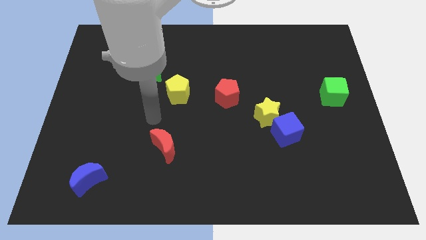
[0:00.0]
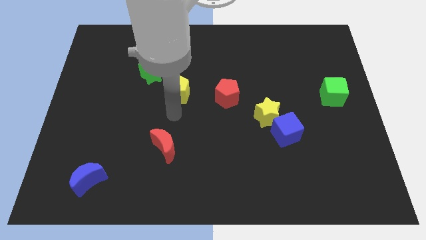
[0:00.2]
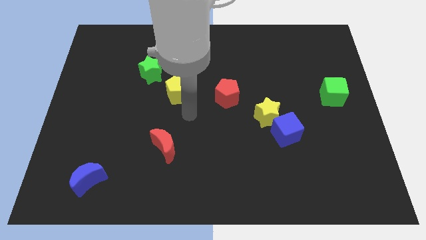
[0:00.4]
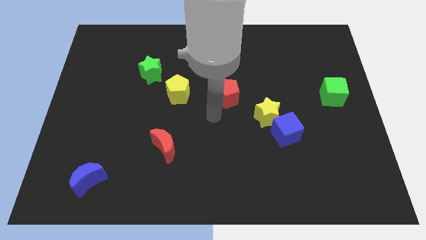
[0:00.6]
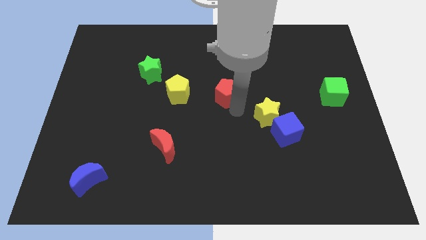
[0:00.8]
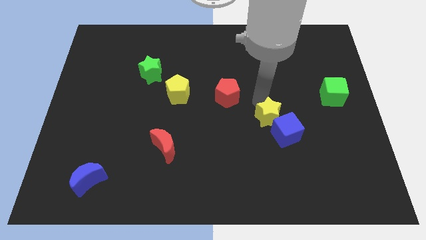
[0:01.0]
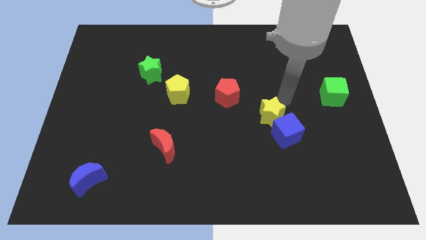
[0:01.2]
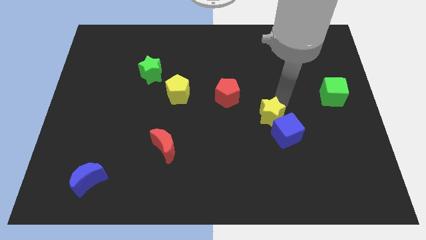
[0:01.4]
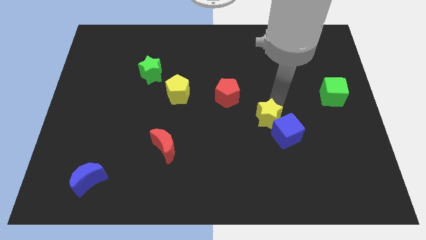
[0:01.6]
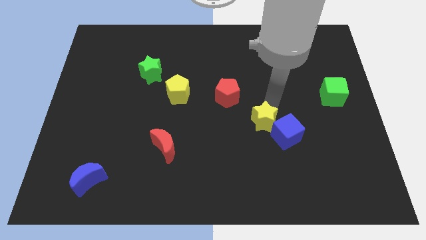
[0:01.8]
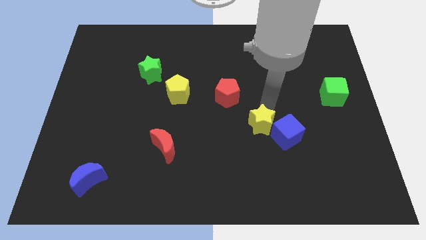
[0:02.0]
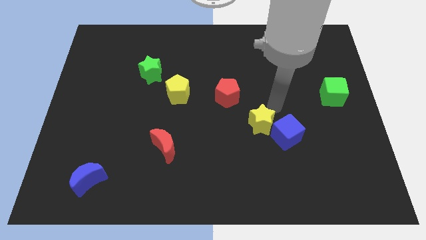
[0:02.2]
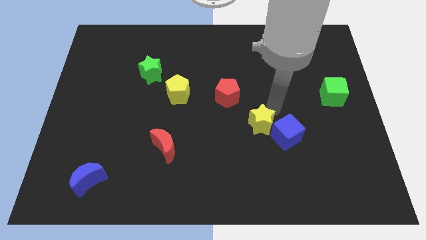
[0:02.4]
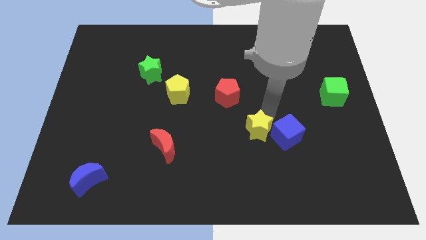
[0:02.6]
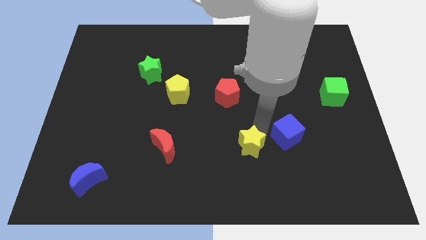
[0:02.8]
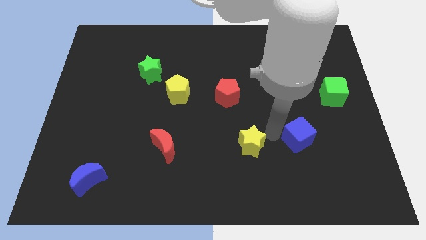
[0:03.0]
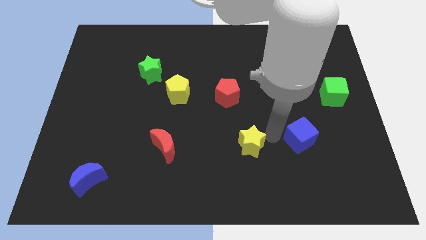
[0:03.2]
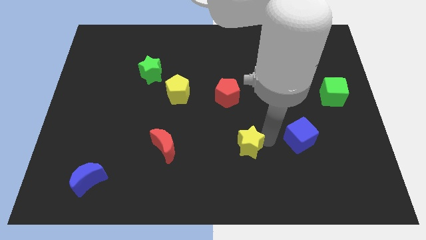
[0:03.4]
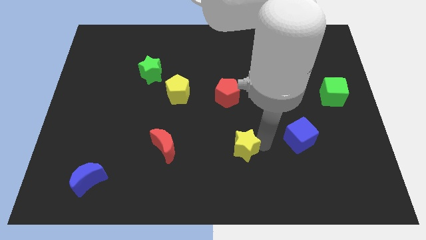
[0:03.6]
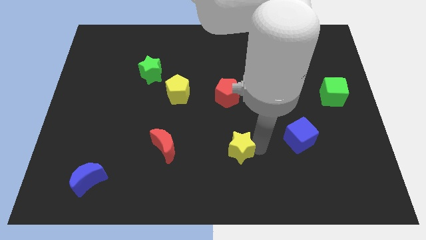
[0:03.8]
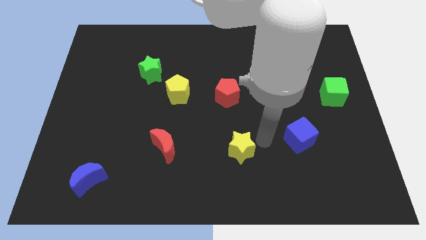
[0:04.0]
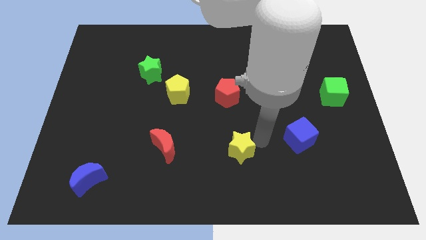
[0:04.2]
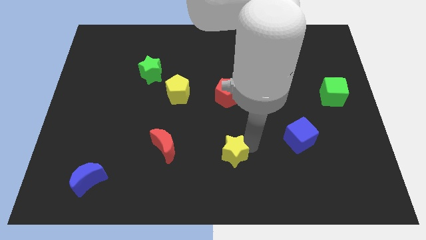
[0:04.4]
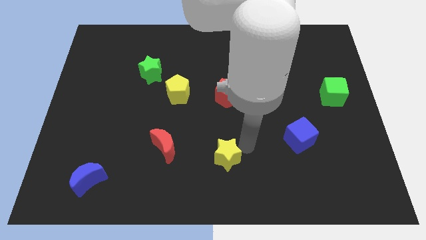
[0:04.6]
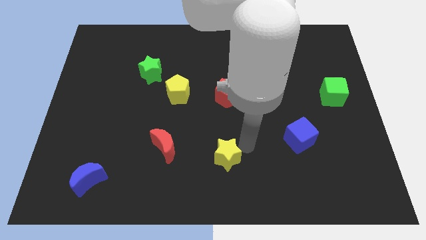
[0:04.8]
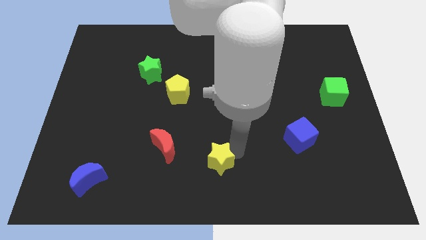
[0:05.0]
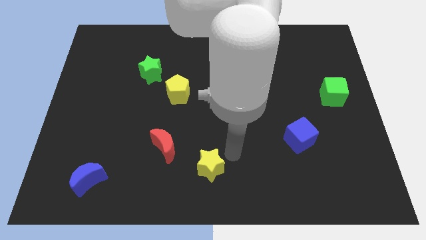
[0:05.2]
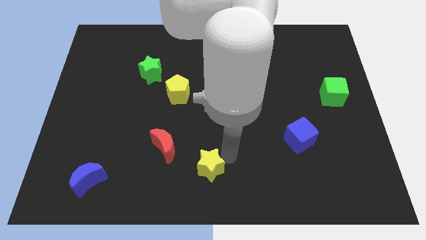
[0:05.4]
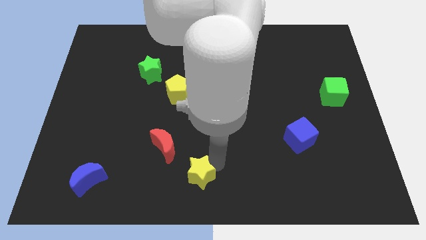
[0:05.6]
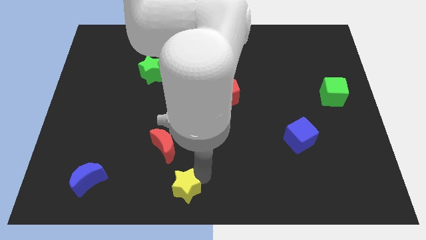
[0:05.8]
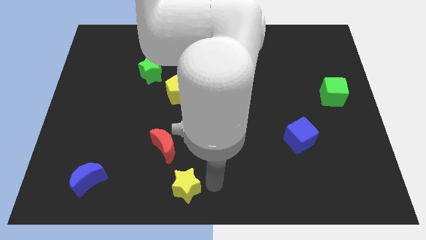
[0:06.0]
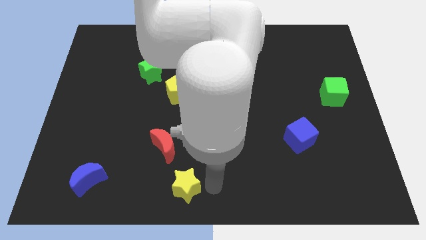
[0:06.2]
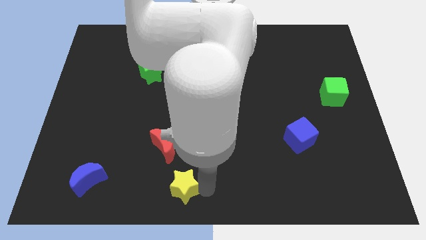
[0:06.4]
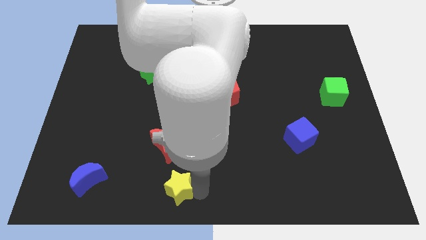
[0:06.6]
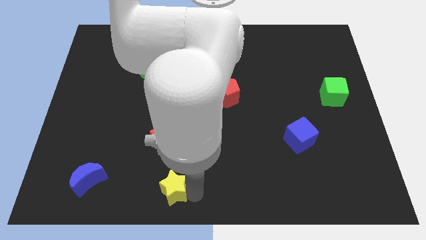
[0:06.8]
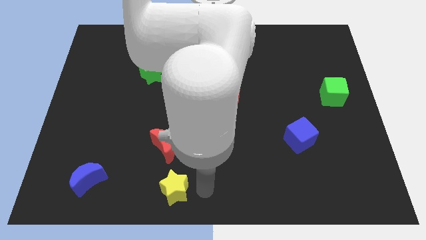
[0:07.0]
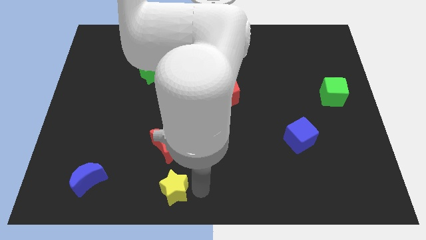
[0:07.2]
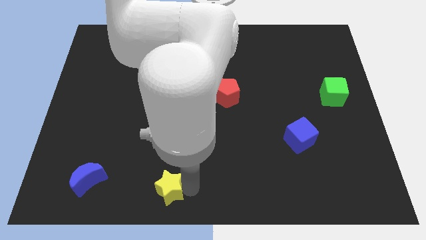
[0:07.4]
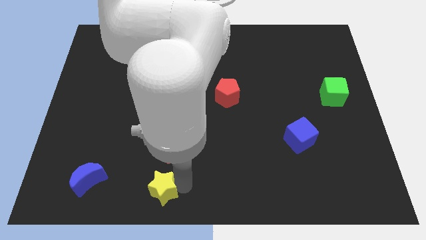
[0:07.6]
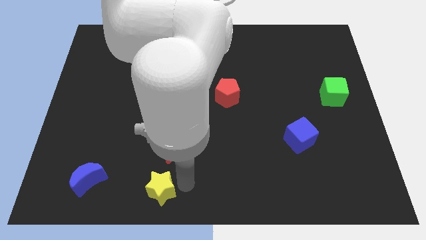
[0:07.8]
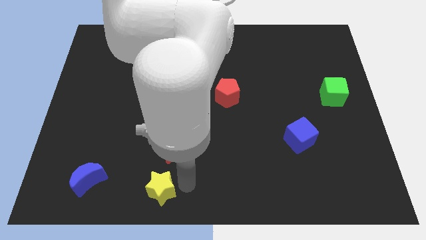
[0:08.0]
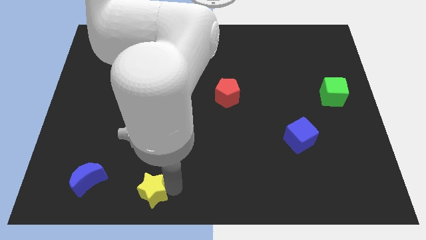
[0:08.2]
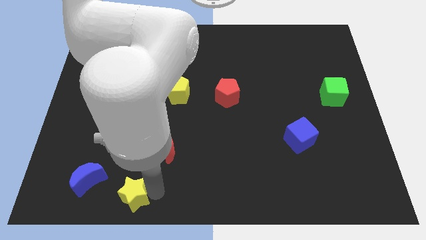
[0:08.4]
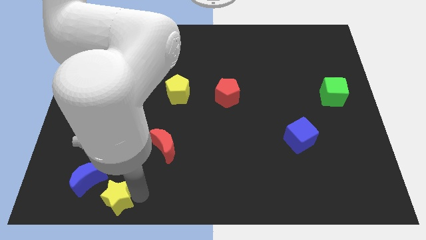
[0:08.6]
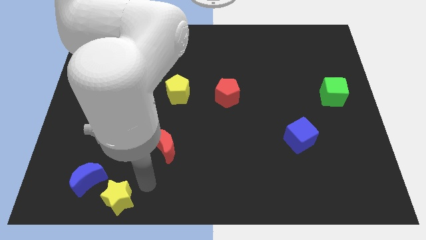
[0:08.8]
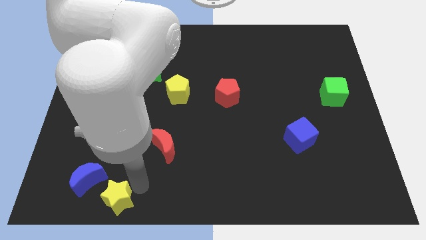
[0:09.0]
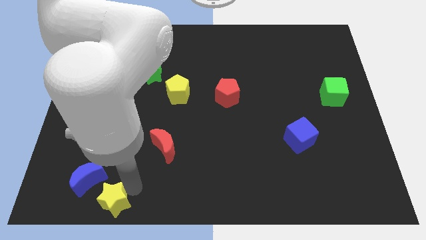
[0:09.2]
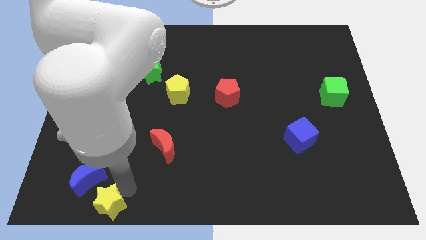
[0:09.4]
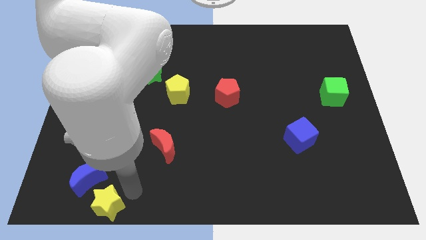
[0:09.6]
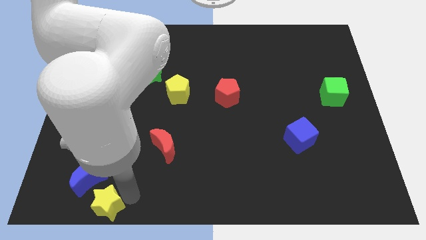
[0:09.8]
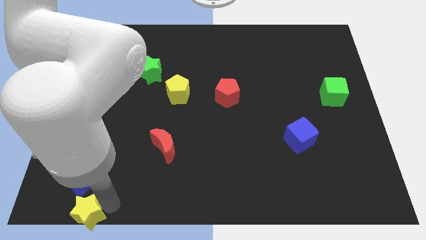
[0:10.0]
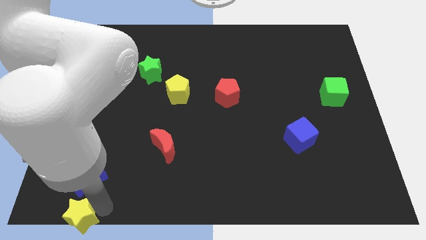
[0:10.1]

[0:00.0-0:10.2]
put the yellow star to the bottom left of the board

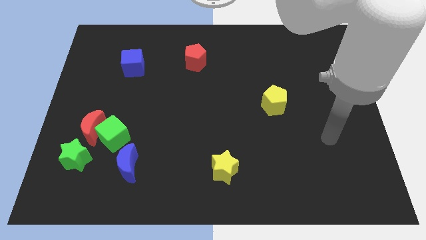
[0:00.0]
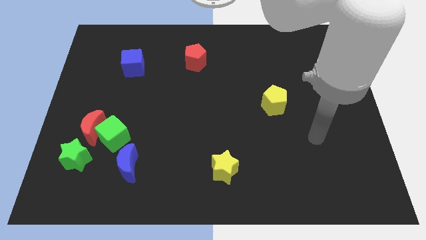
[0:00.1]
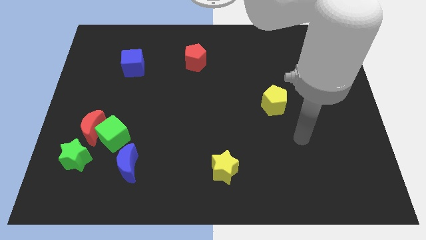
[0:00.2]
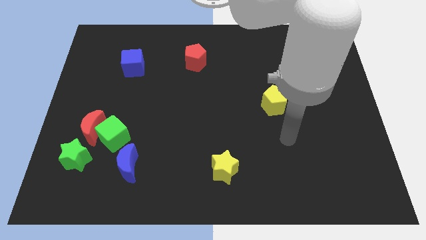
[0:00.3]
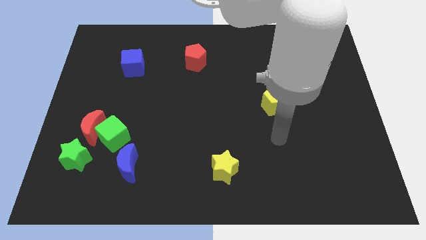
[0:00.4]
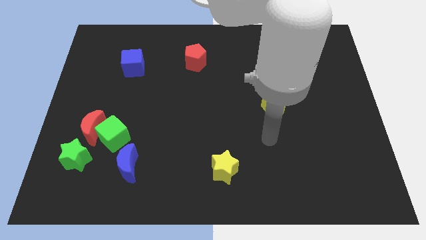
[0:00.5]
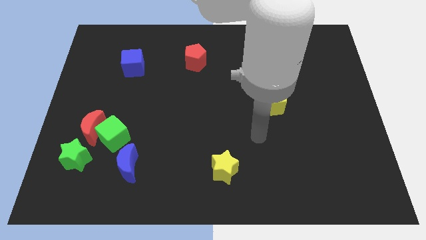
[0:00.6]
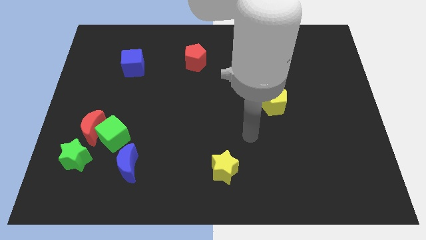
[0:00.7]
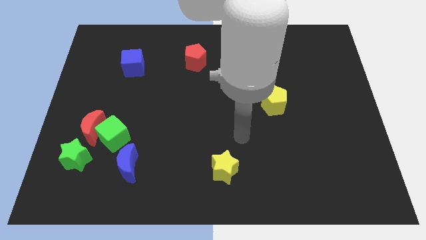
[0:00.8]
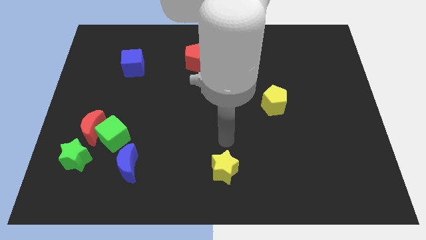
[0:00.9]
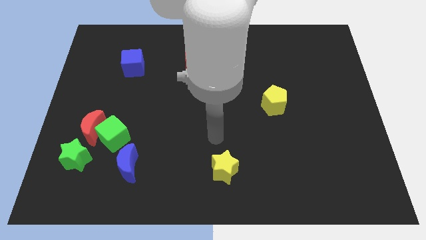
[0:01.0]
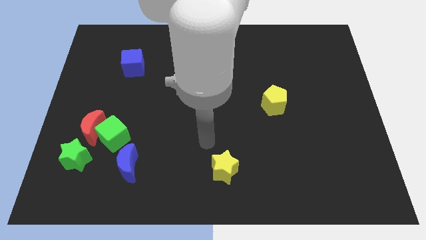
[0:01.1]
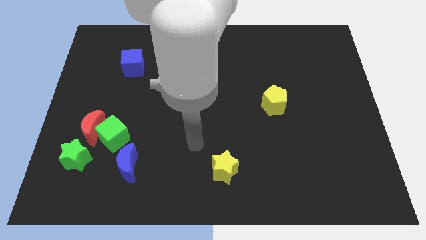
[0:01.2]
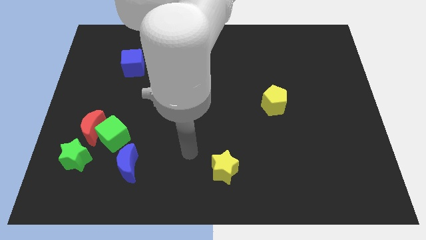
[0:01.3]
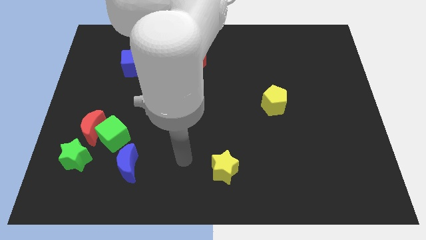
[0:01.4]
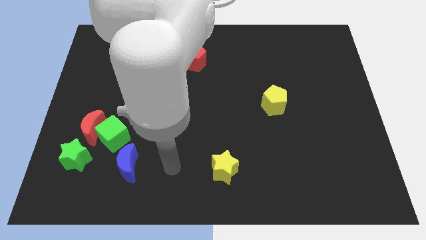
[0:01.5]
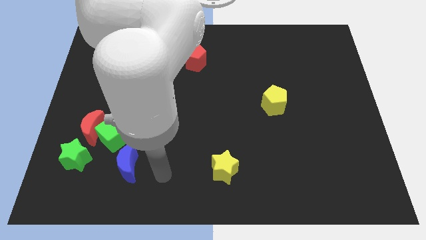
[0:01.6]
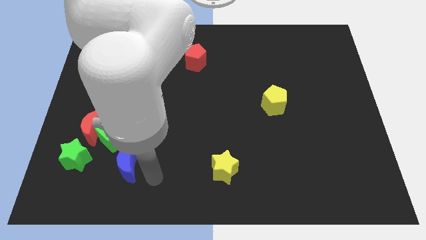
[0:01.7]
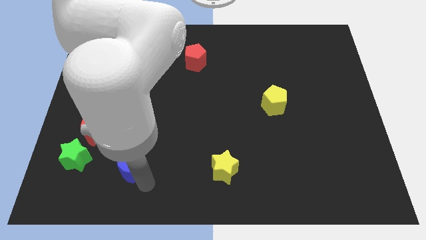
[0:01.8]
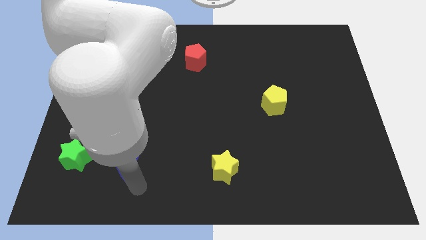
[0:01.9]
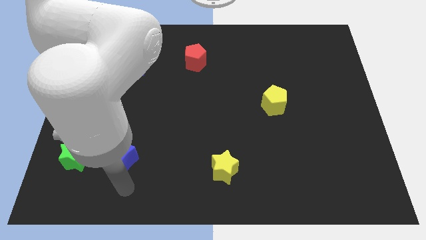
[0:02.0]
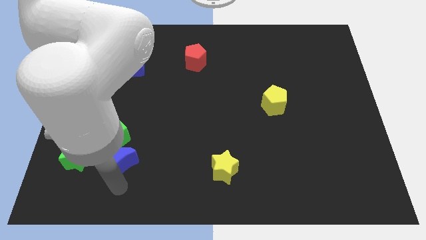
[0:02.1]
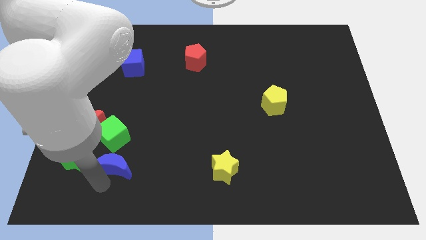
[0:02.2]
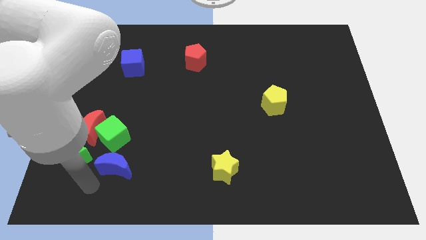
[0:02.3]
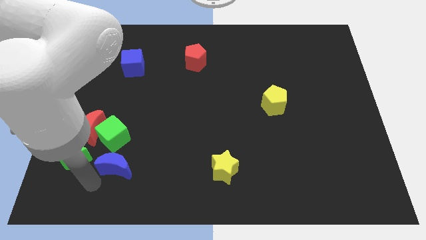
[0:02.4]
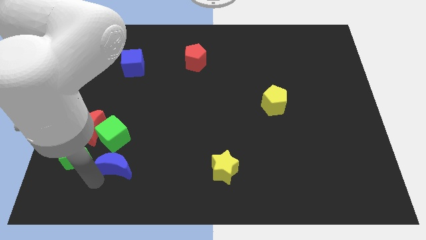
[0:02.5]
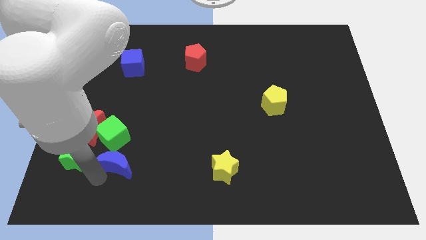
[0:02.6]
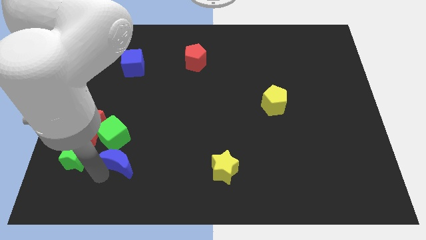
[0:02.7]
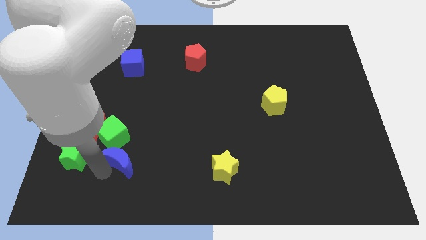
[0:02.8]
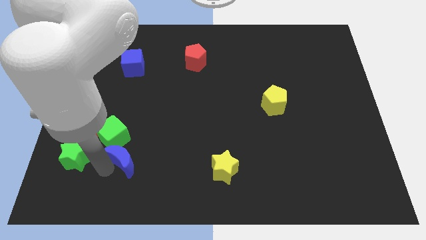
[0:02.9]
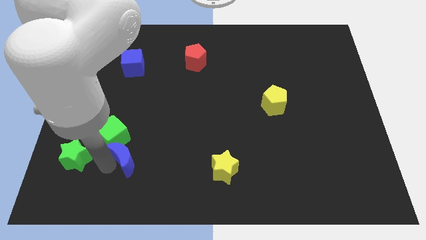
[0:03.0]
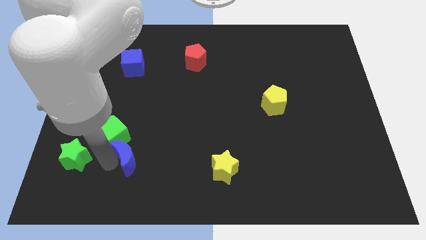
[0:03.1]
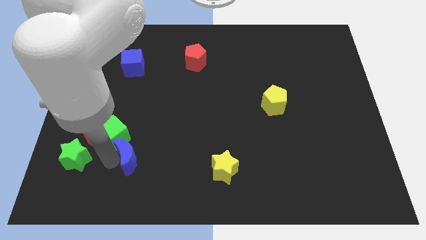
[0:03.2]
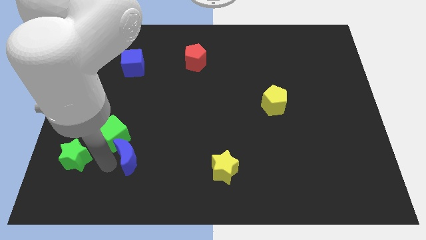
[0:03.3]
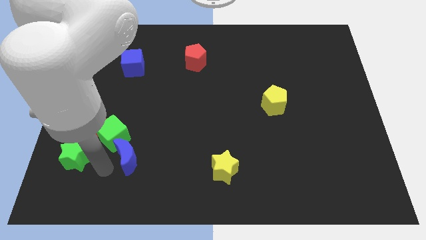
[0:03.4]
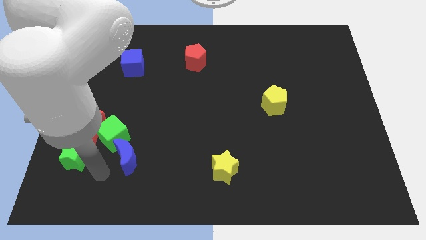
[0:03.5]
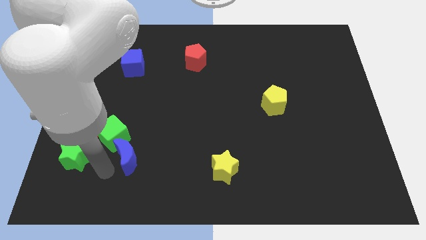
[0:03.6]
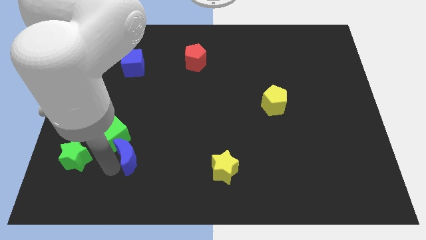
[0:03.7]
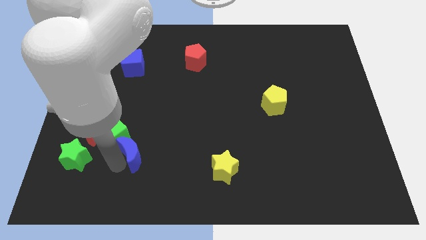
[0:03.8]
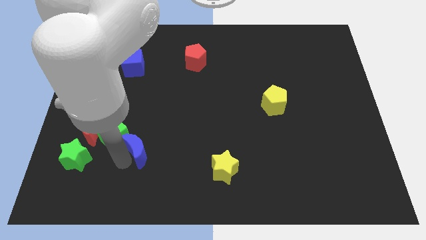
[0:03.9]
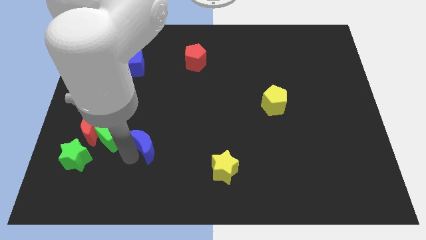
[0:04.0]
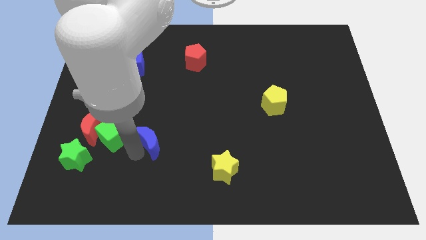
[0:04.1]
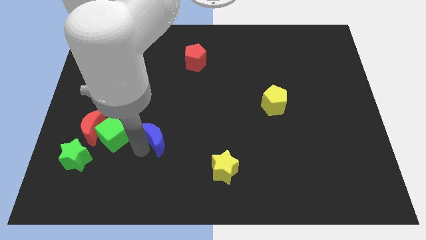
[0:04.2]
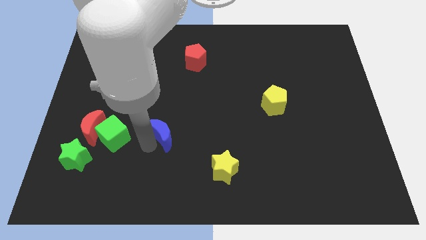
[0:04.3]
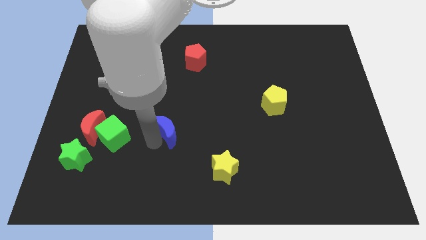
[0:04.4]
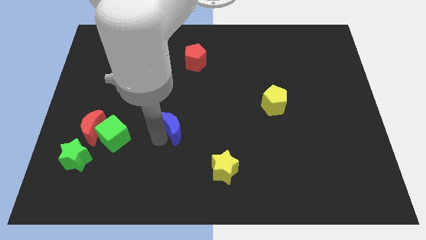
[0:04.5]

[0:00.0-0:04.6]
push the blue moon to the center
